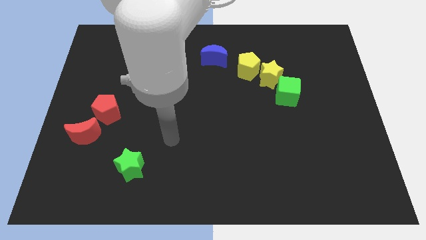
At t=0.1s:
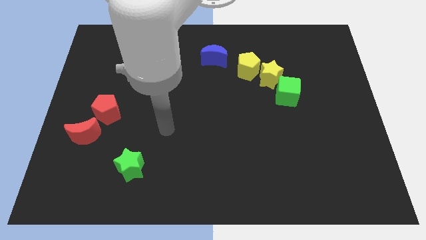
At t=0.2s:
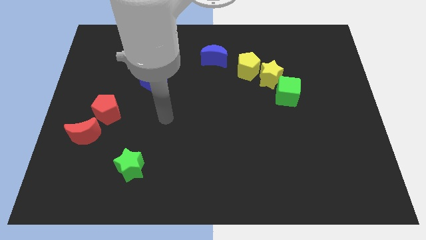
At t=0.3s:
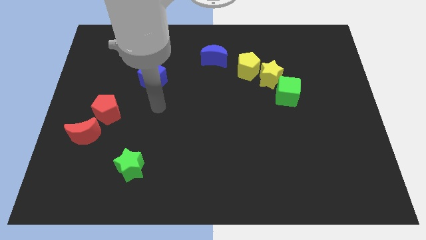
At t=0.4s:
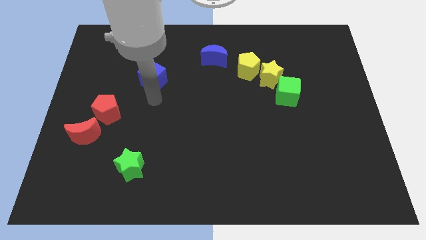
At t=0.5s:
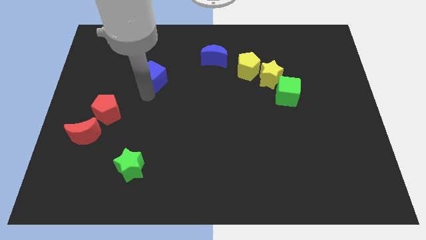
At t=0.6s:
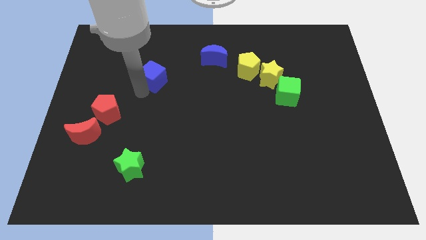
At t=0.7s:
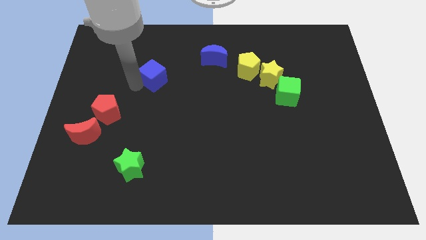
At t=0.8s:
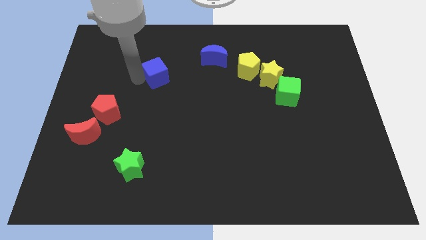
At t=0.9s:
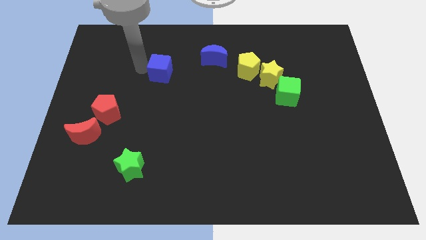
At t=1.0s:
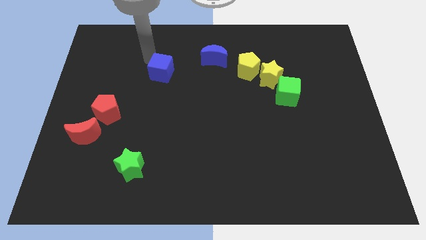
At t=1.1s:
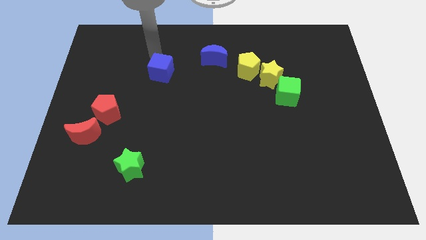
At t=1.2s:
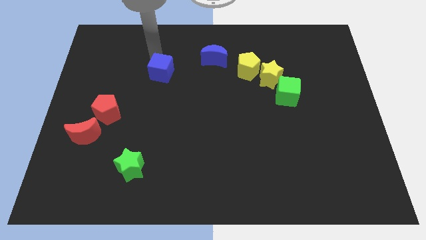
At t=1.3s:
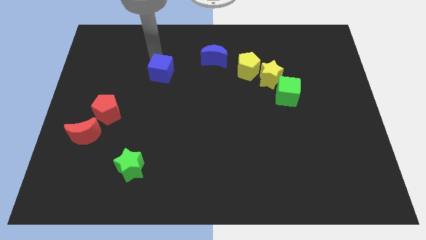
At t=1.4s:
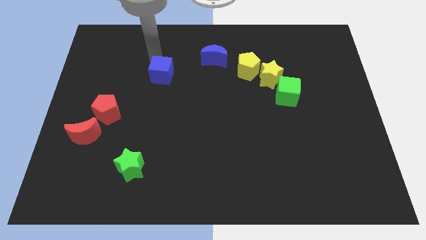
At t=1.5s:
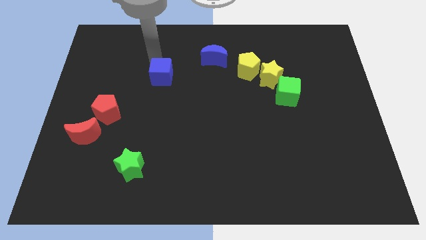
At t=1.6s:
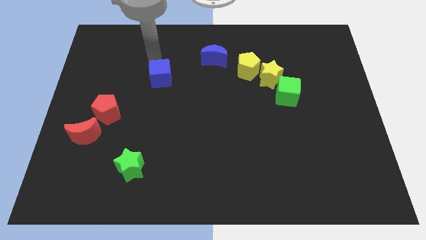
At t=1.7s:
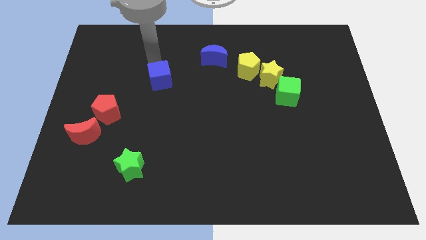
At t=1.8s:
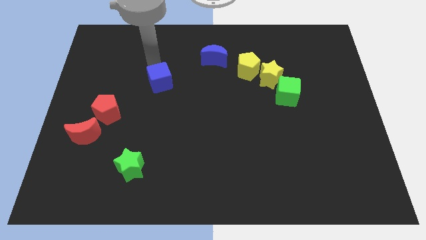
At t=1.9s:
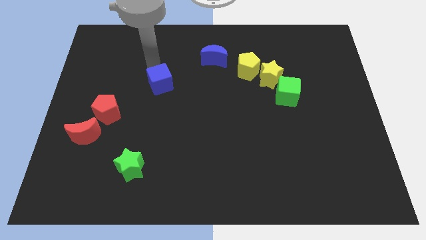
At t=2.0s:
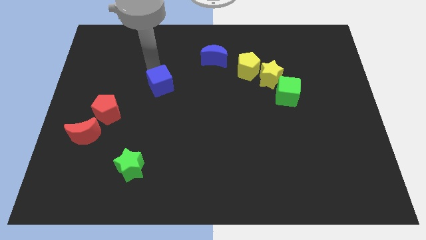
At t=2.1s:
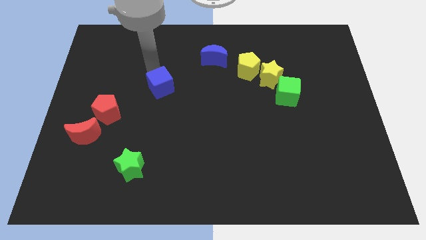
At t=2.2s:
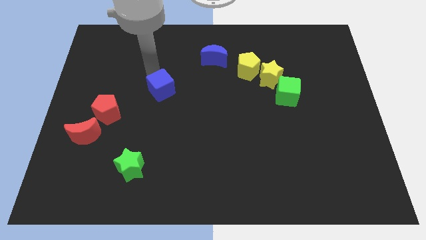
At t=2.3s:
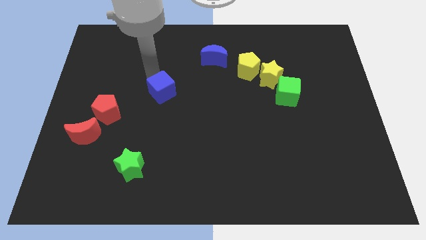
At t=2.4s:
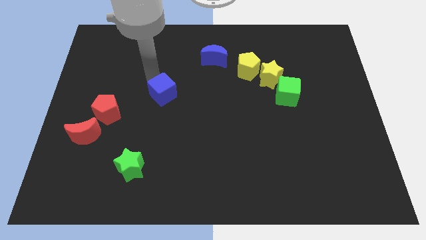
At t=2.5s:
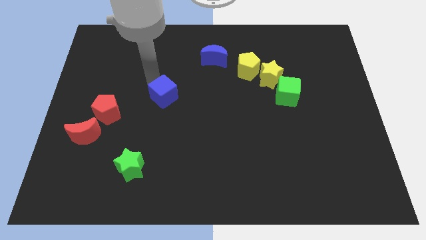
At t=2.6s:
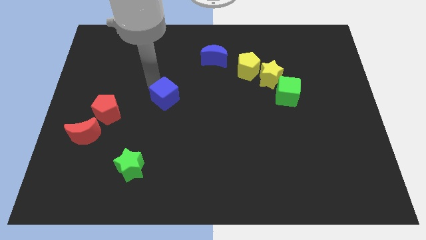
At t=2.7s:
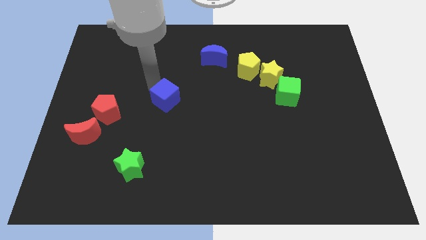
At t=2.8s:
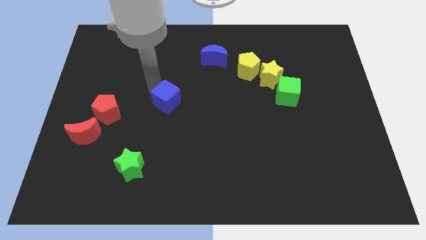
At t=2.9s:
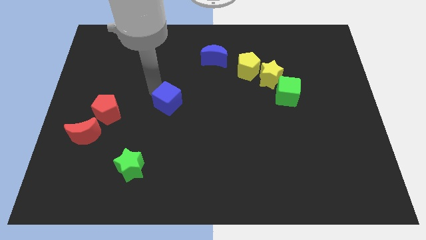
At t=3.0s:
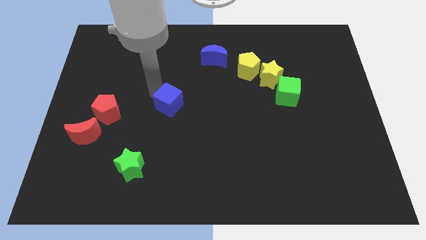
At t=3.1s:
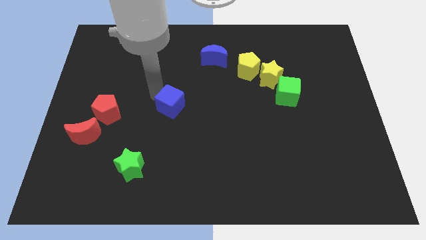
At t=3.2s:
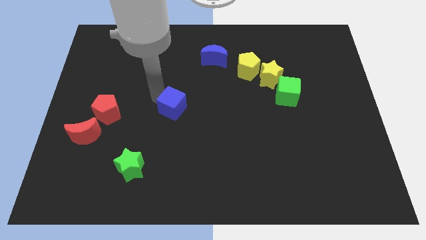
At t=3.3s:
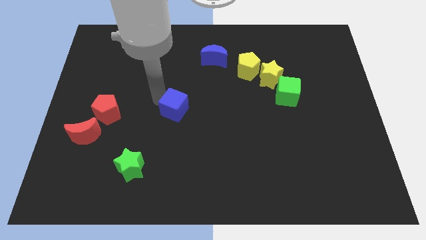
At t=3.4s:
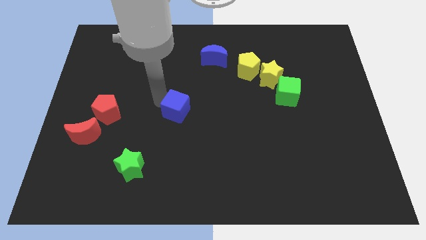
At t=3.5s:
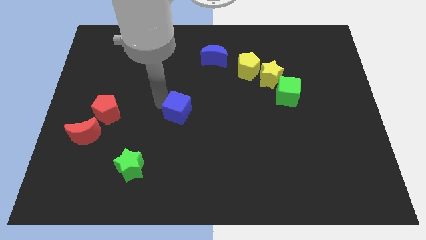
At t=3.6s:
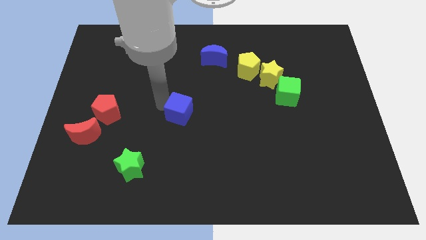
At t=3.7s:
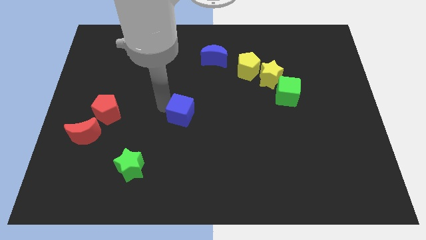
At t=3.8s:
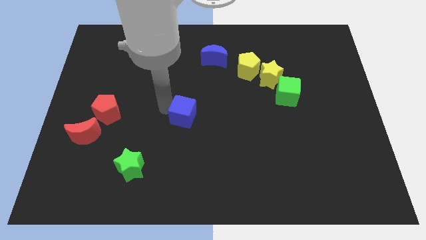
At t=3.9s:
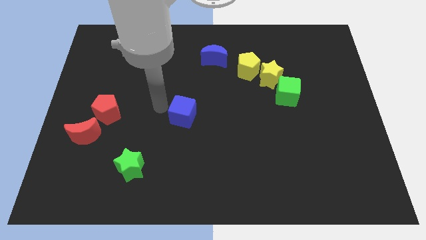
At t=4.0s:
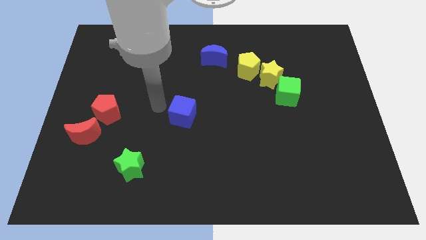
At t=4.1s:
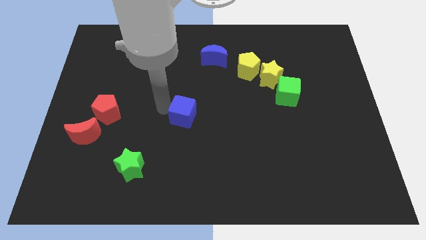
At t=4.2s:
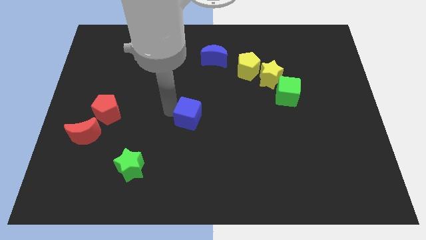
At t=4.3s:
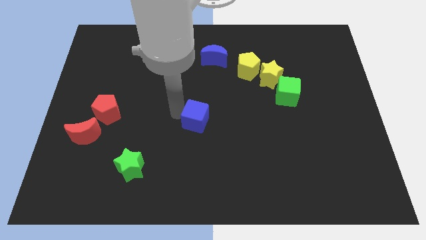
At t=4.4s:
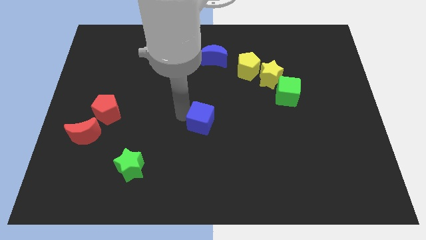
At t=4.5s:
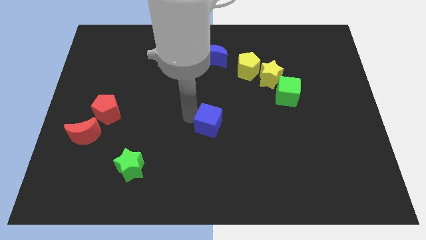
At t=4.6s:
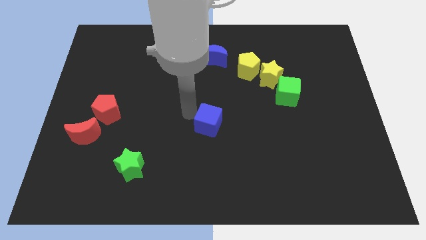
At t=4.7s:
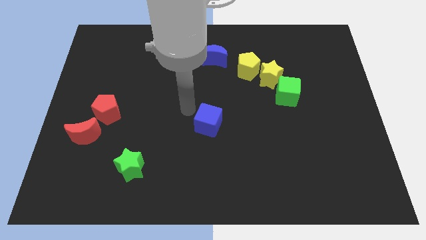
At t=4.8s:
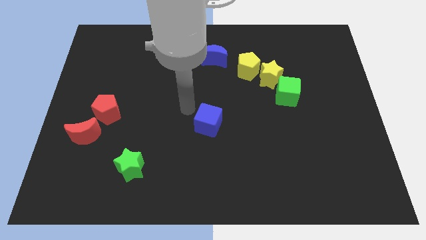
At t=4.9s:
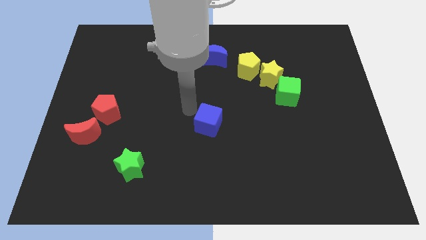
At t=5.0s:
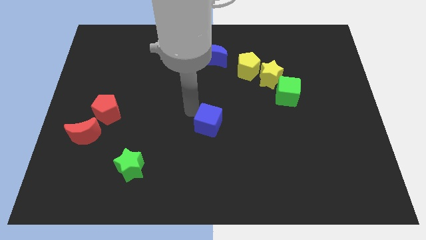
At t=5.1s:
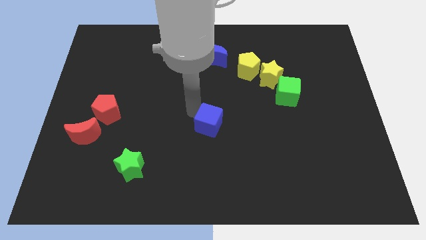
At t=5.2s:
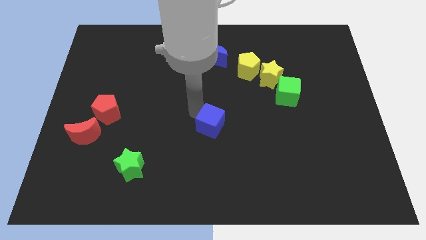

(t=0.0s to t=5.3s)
push the blue cube down and to the right diagonally

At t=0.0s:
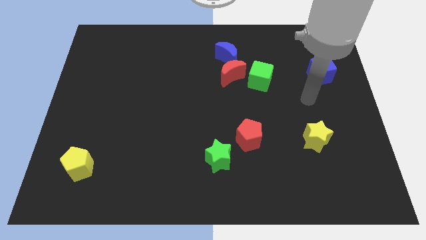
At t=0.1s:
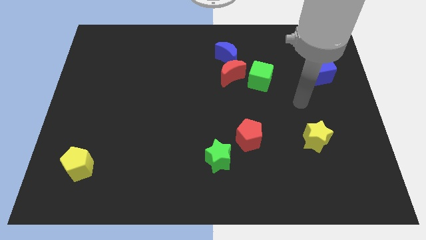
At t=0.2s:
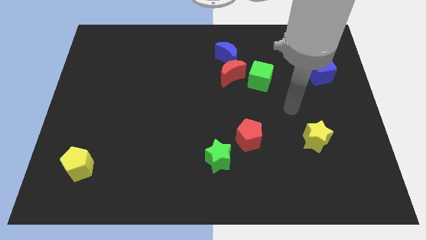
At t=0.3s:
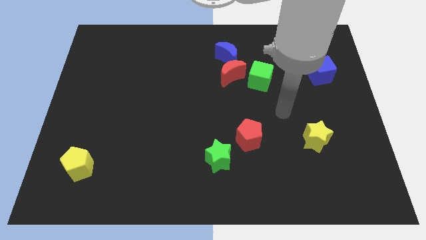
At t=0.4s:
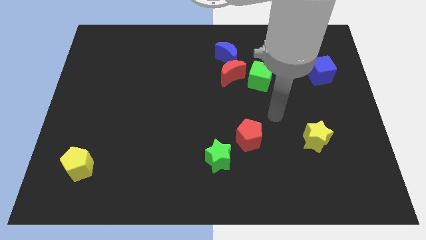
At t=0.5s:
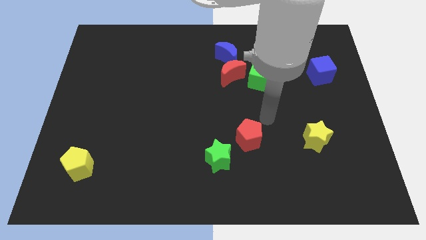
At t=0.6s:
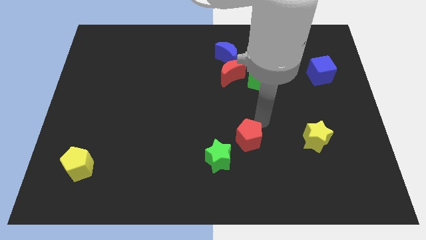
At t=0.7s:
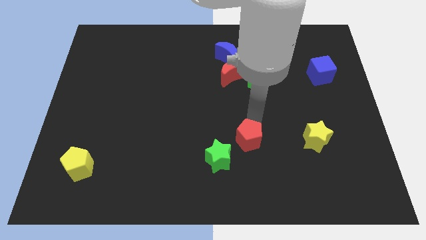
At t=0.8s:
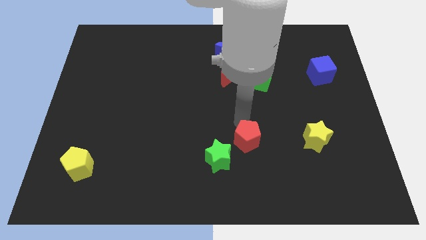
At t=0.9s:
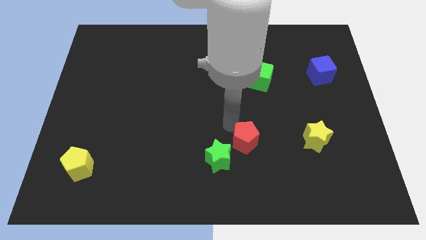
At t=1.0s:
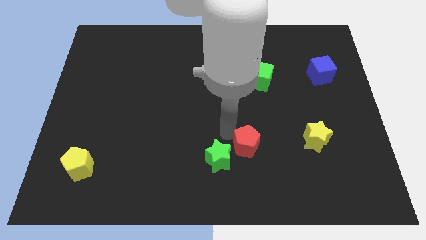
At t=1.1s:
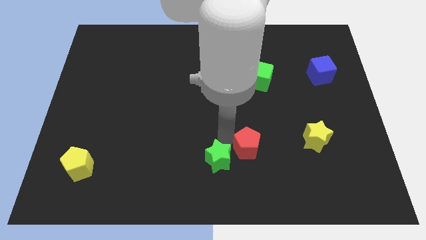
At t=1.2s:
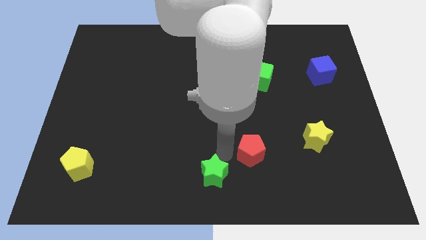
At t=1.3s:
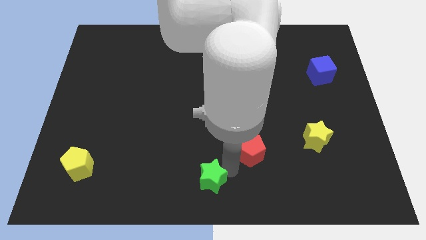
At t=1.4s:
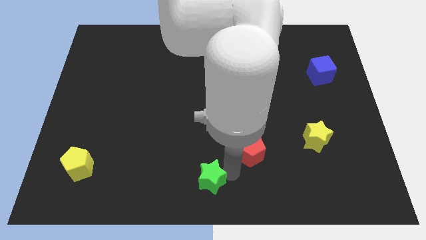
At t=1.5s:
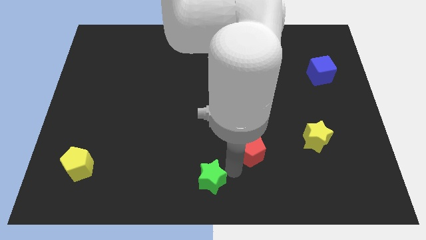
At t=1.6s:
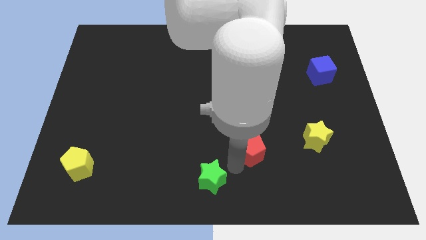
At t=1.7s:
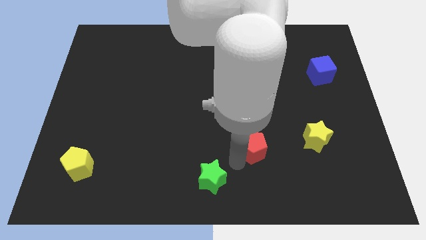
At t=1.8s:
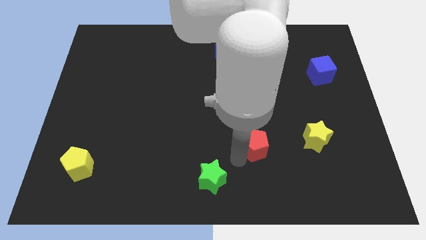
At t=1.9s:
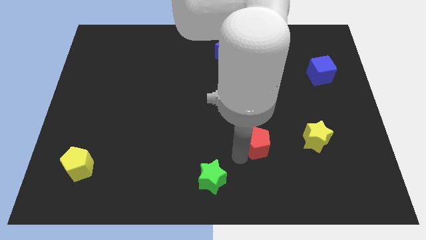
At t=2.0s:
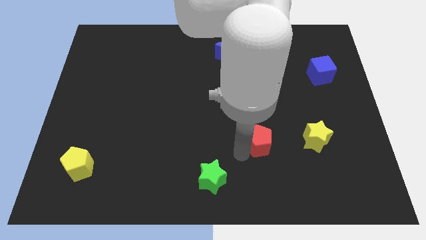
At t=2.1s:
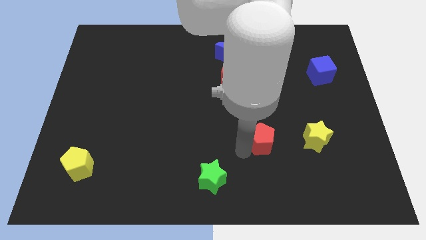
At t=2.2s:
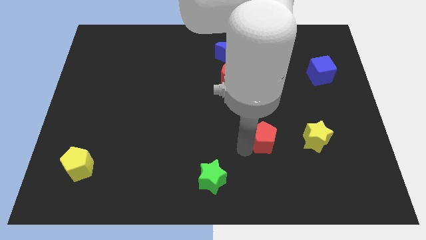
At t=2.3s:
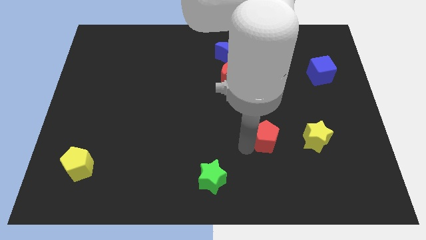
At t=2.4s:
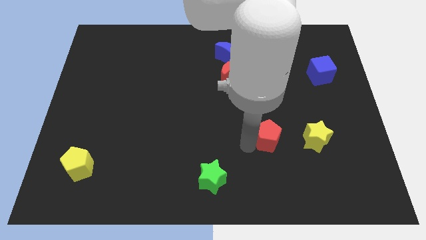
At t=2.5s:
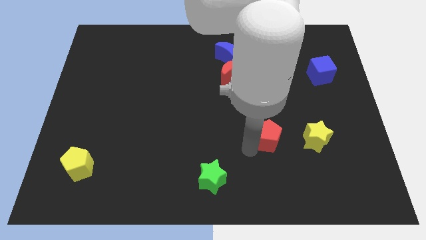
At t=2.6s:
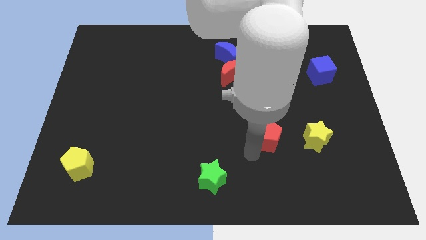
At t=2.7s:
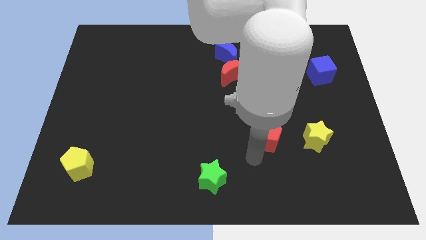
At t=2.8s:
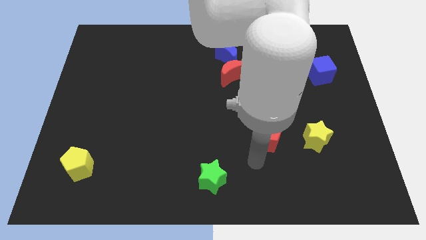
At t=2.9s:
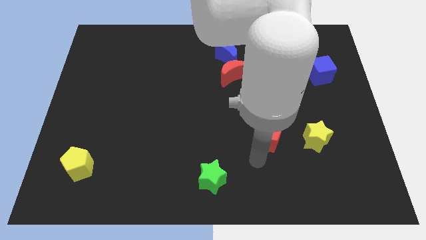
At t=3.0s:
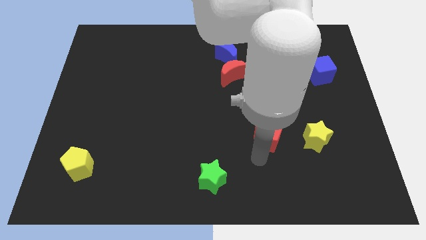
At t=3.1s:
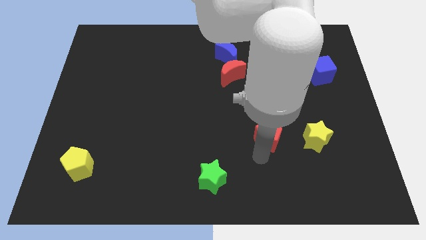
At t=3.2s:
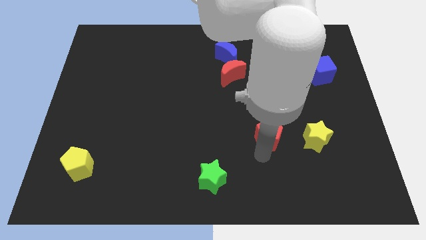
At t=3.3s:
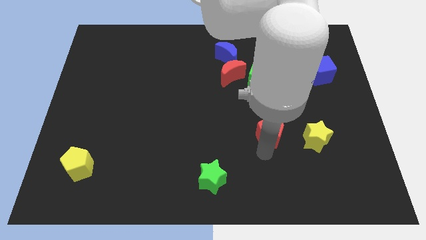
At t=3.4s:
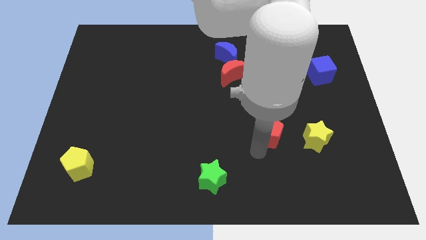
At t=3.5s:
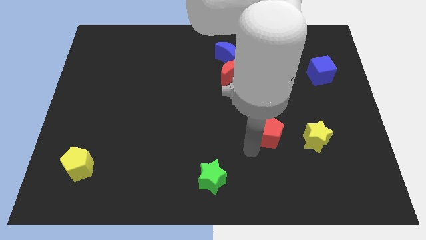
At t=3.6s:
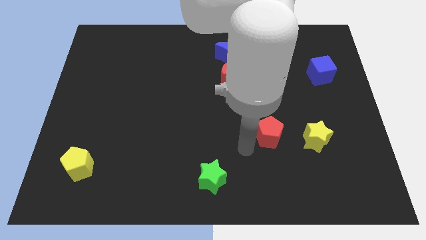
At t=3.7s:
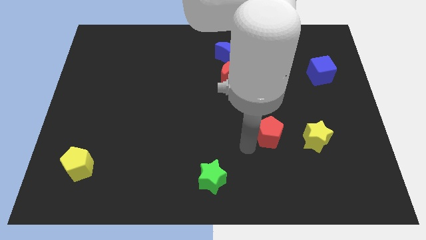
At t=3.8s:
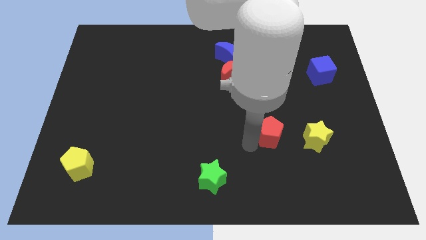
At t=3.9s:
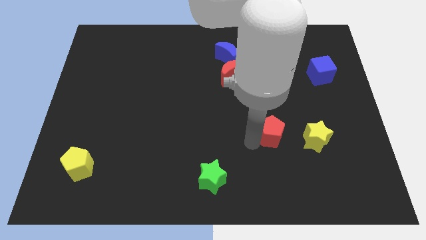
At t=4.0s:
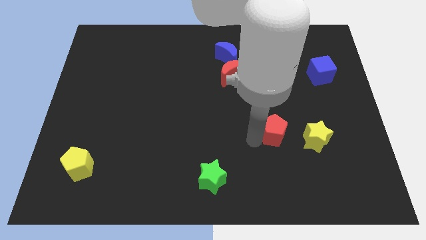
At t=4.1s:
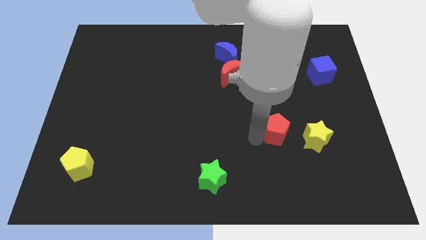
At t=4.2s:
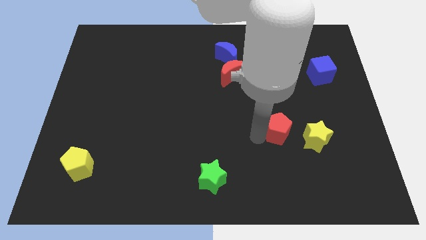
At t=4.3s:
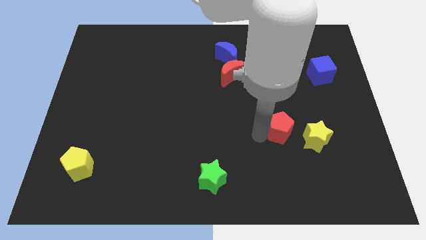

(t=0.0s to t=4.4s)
slightly move the red pentagon to the right
